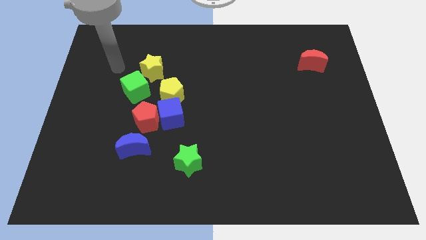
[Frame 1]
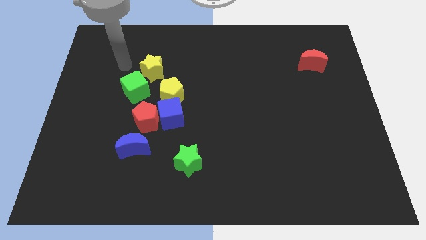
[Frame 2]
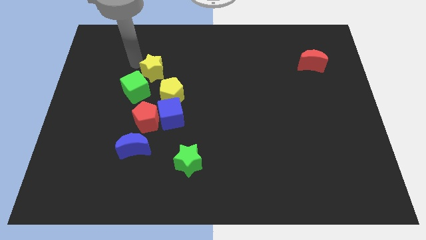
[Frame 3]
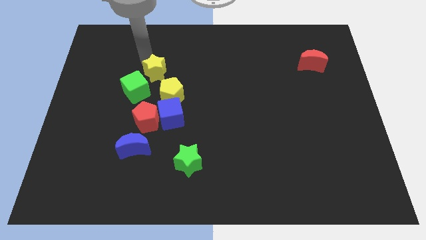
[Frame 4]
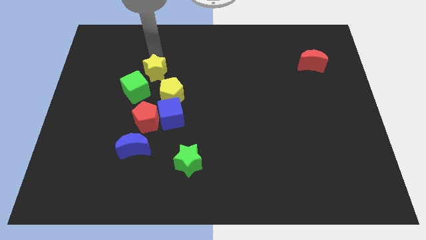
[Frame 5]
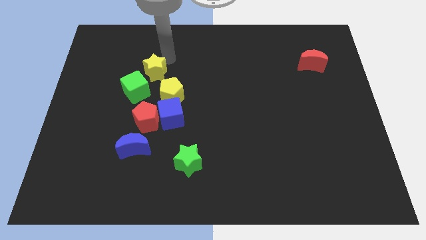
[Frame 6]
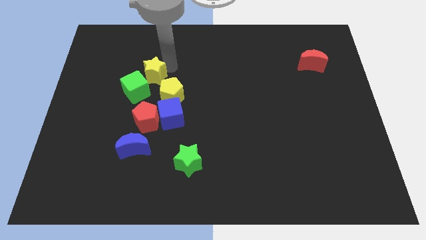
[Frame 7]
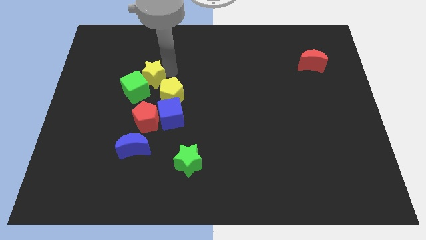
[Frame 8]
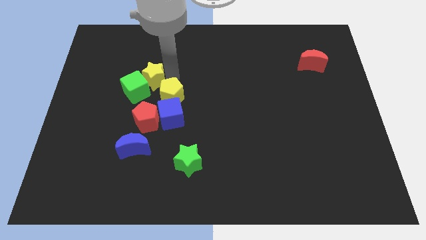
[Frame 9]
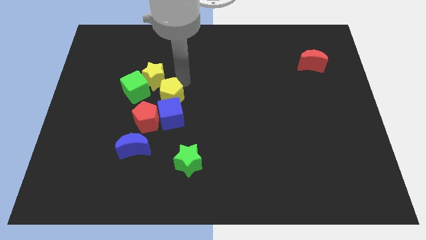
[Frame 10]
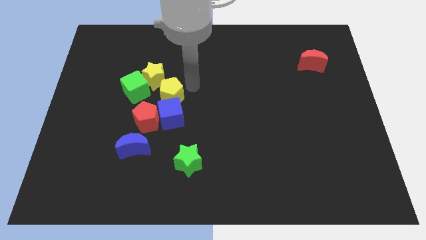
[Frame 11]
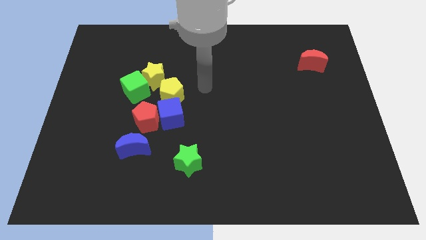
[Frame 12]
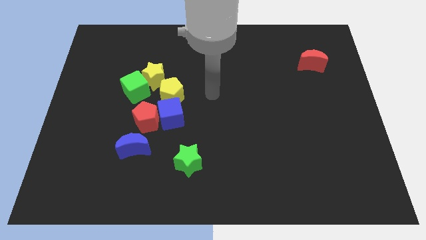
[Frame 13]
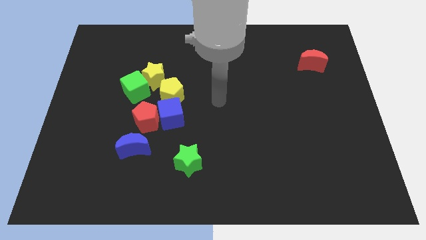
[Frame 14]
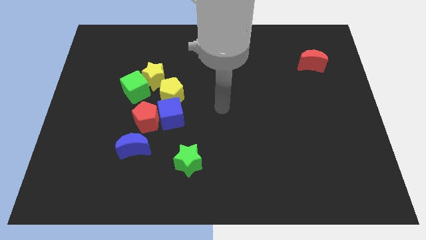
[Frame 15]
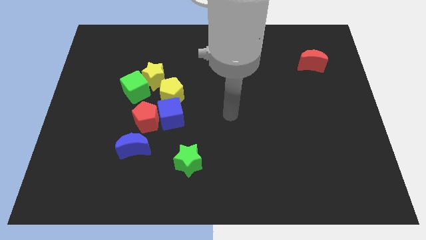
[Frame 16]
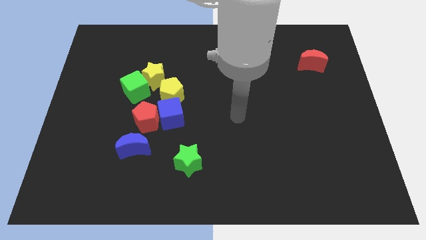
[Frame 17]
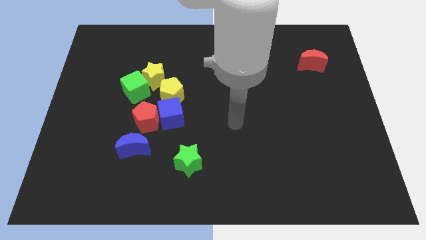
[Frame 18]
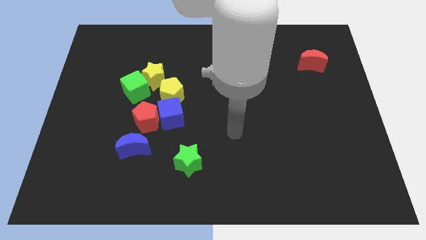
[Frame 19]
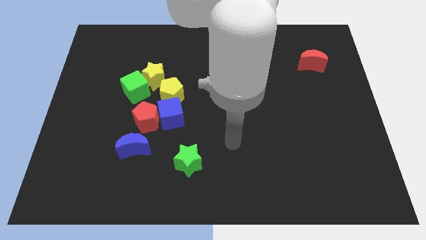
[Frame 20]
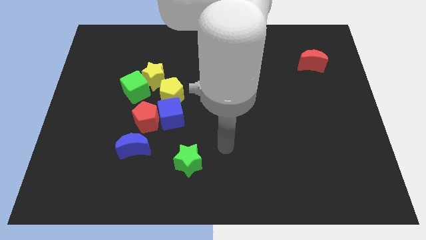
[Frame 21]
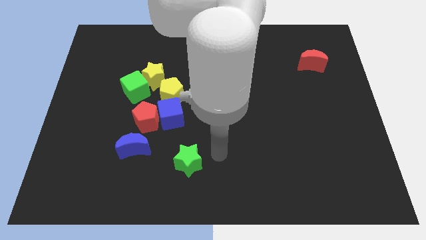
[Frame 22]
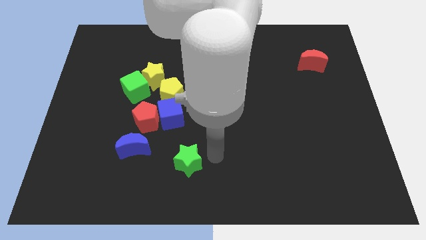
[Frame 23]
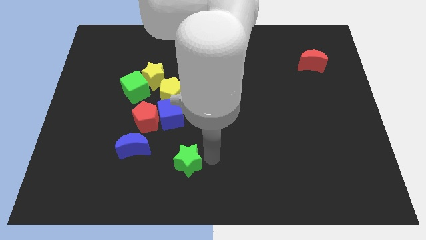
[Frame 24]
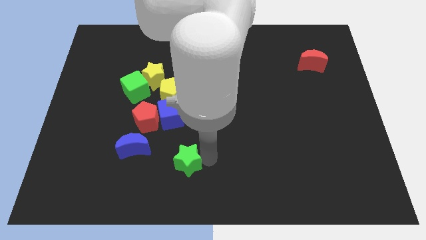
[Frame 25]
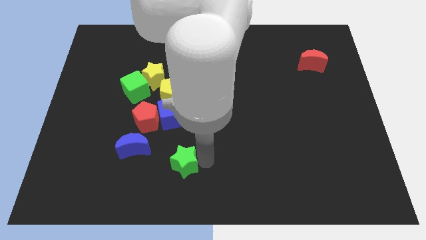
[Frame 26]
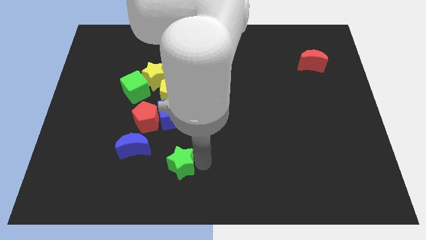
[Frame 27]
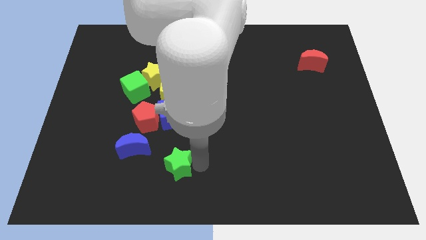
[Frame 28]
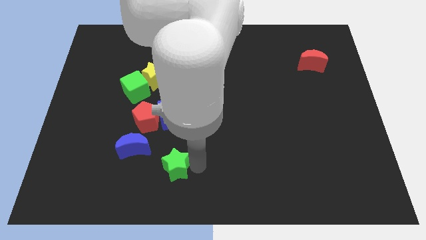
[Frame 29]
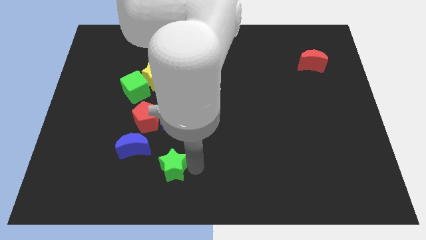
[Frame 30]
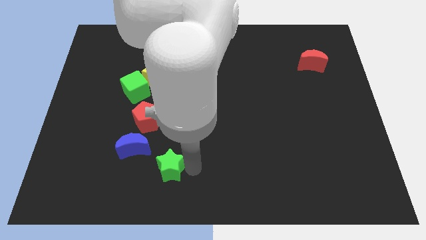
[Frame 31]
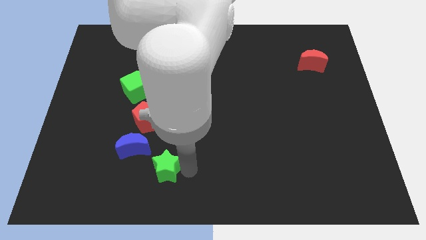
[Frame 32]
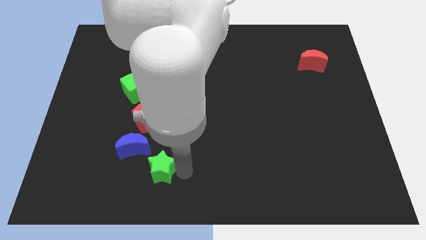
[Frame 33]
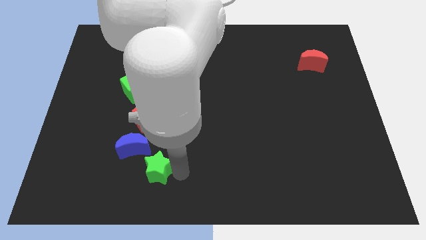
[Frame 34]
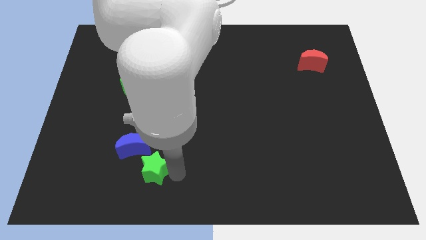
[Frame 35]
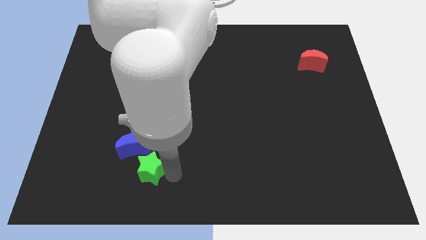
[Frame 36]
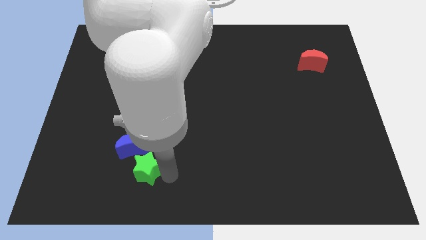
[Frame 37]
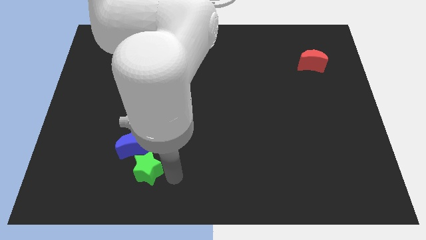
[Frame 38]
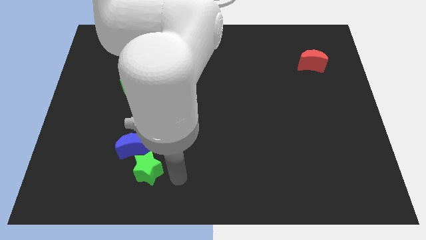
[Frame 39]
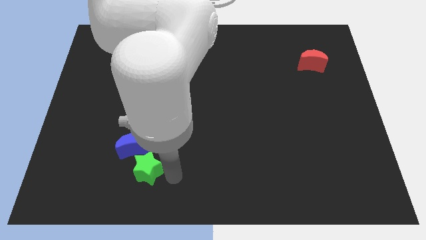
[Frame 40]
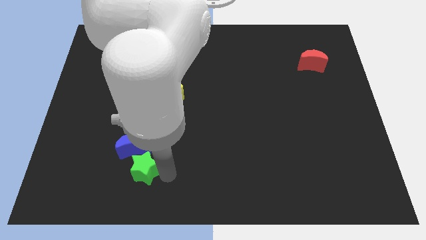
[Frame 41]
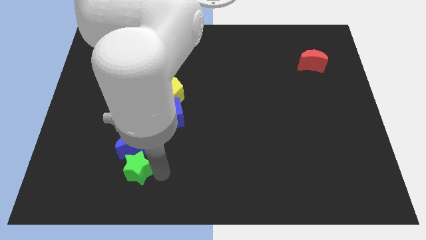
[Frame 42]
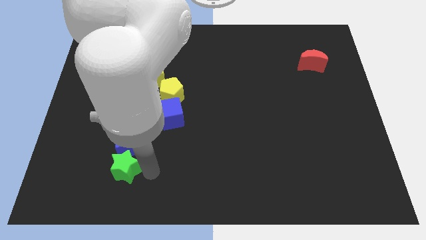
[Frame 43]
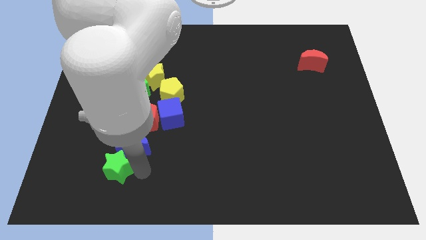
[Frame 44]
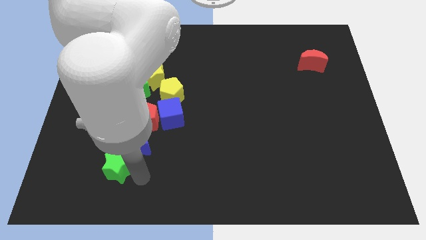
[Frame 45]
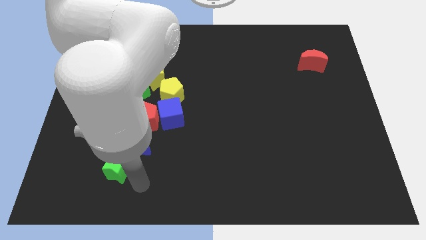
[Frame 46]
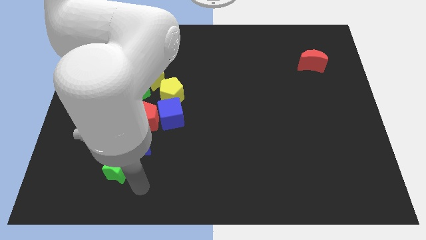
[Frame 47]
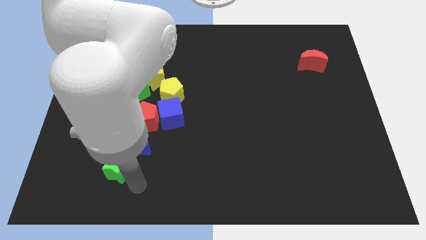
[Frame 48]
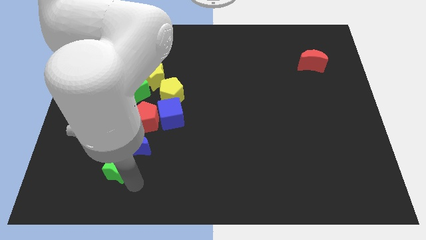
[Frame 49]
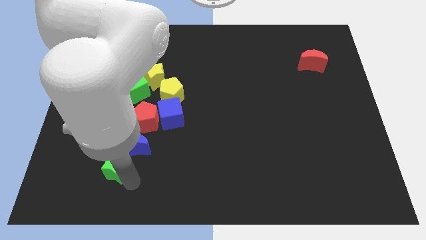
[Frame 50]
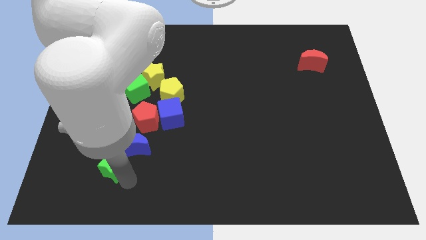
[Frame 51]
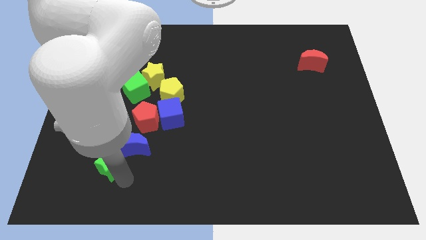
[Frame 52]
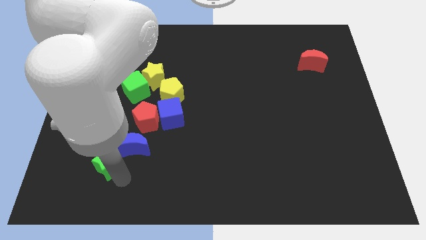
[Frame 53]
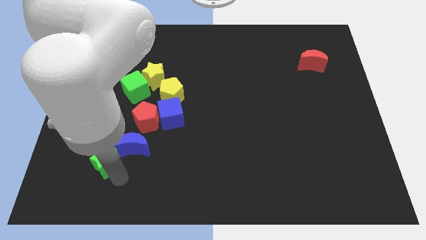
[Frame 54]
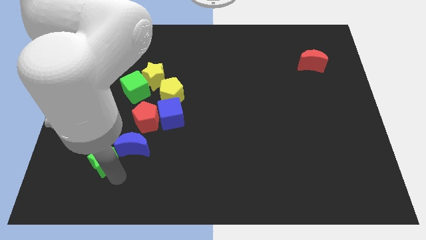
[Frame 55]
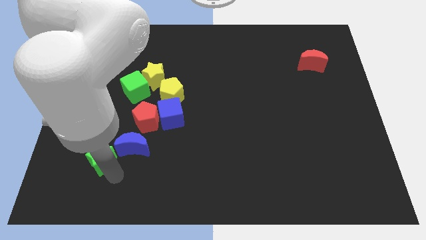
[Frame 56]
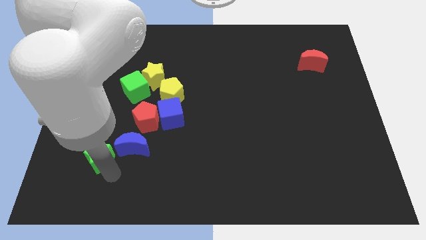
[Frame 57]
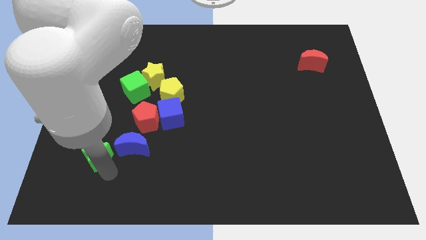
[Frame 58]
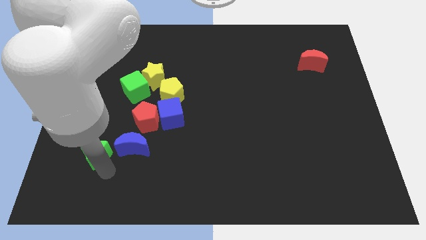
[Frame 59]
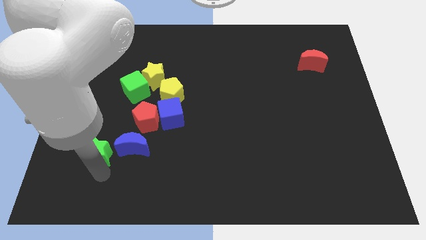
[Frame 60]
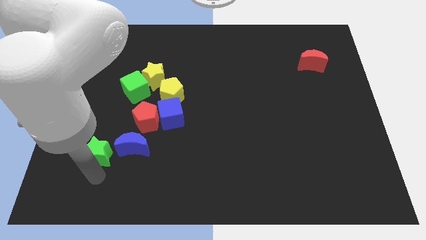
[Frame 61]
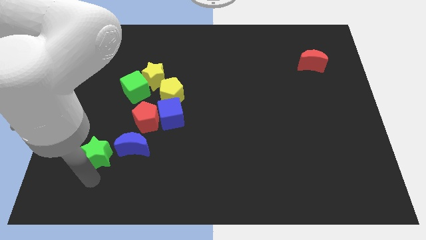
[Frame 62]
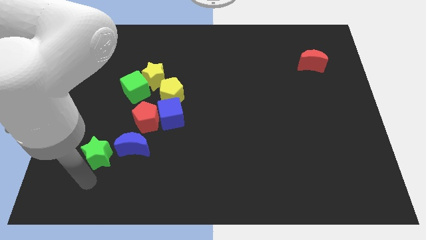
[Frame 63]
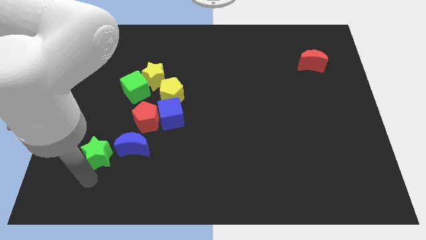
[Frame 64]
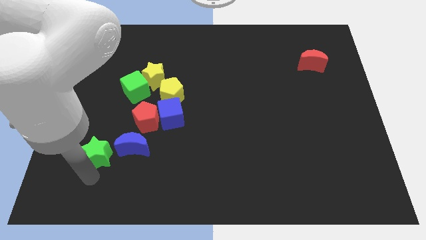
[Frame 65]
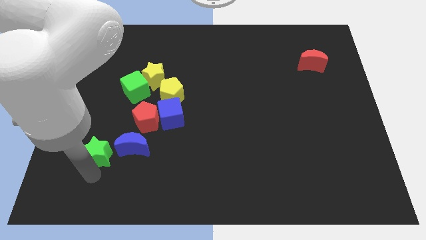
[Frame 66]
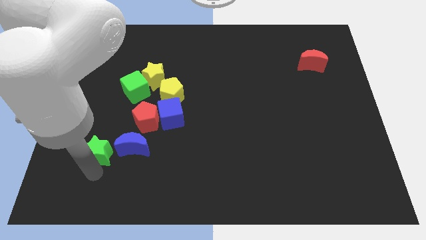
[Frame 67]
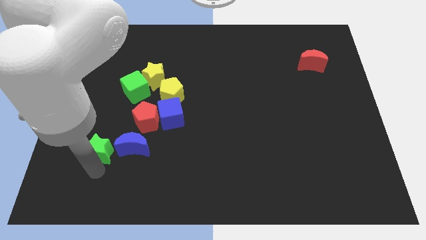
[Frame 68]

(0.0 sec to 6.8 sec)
push the green star a little upwards and to the left

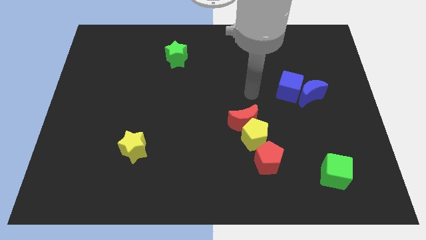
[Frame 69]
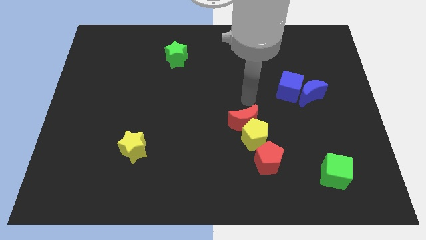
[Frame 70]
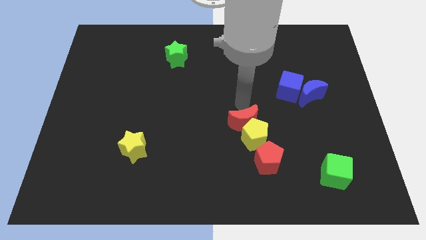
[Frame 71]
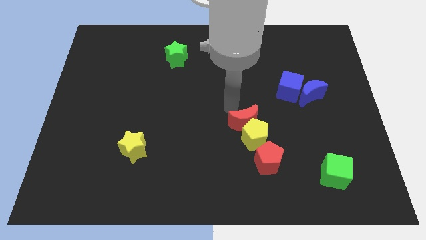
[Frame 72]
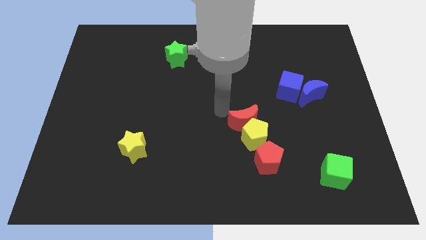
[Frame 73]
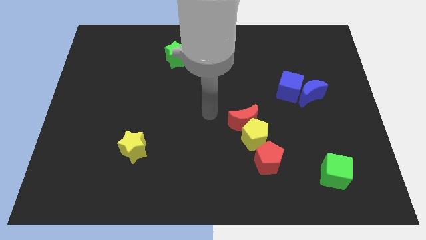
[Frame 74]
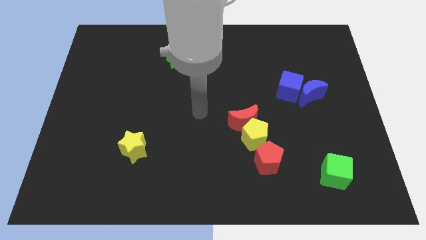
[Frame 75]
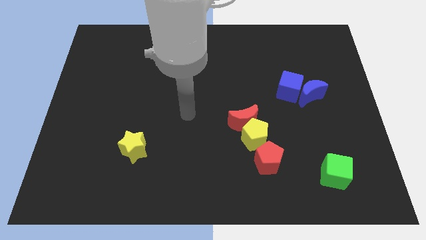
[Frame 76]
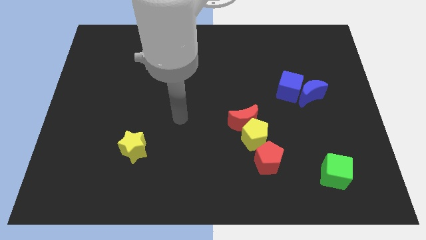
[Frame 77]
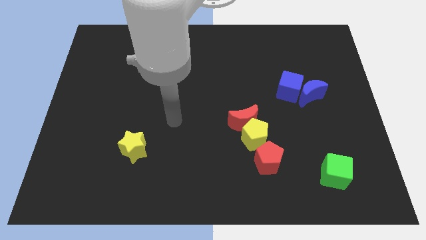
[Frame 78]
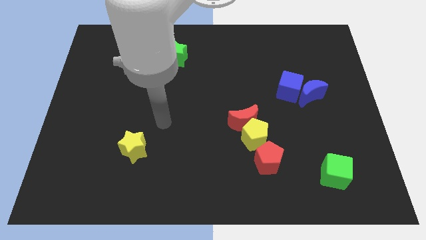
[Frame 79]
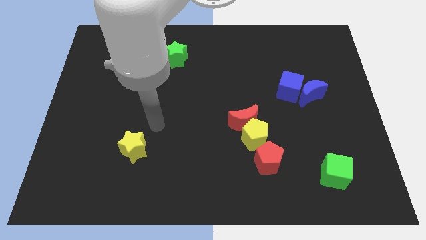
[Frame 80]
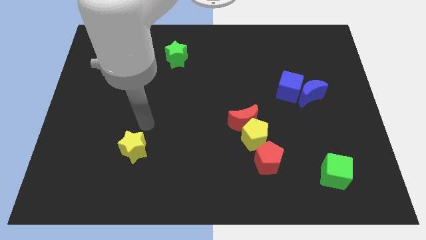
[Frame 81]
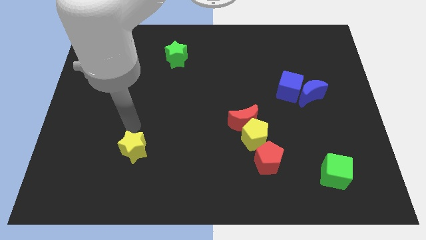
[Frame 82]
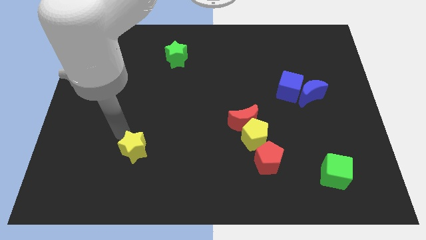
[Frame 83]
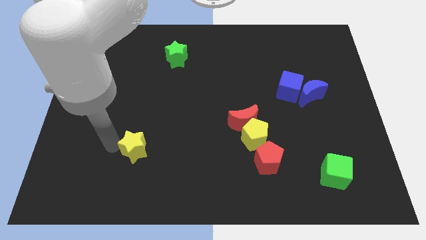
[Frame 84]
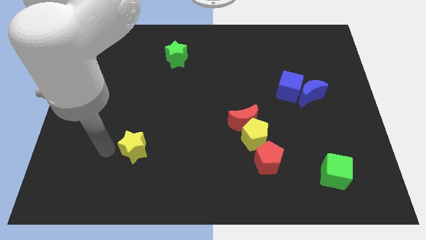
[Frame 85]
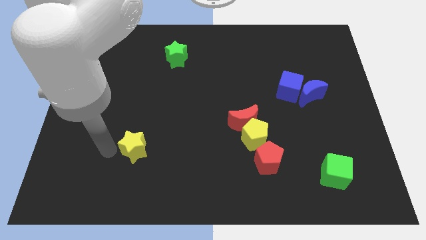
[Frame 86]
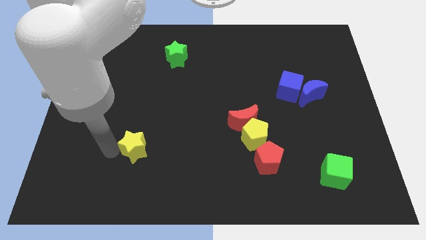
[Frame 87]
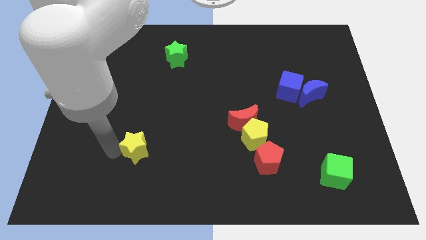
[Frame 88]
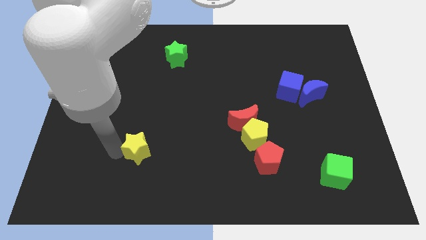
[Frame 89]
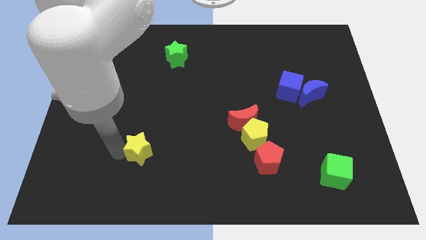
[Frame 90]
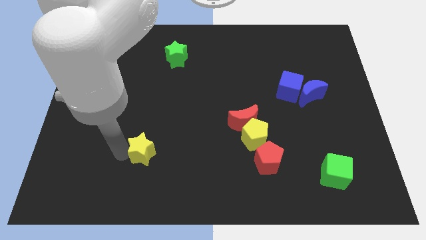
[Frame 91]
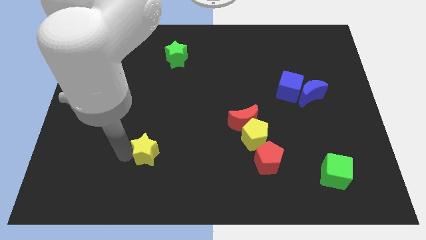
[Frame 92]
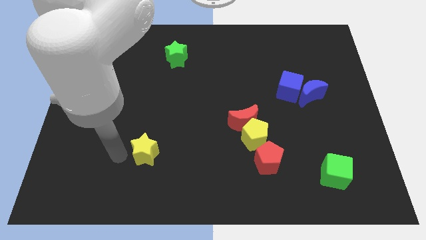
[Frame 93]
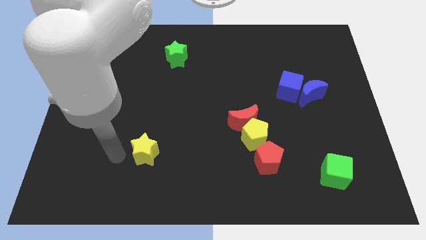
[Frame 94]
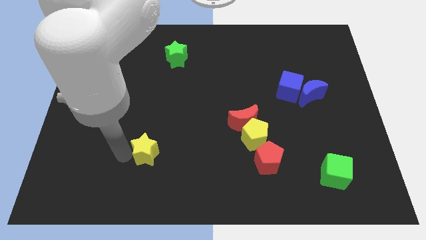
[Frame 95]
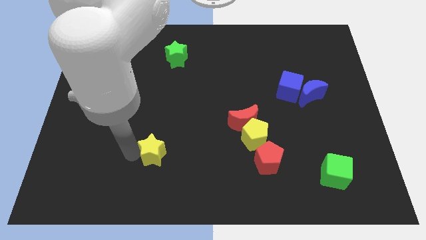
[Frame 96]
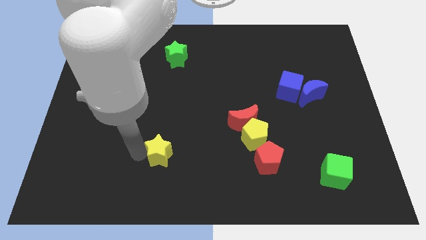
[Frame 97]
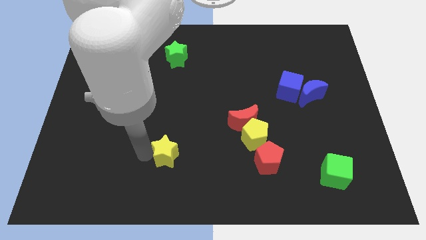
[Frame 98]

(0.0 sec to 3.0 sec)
push the yellow star to the right a little bit
